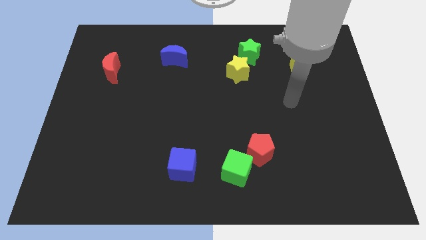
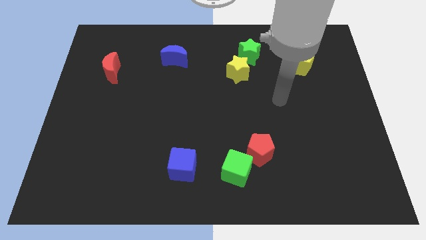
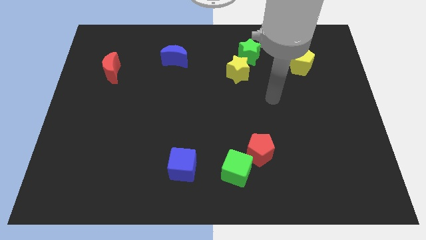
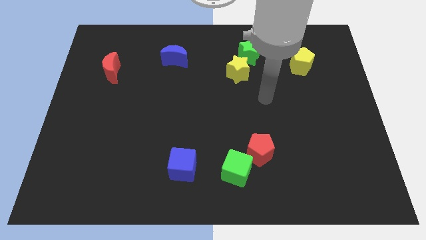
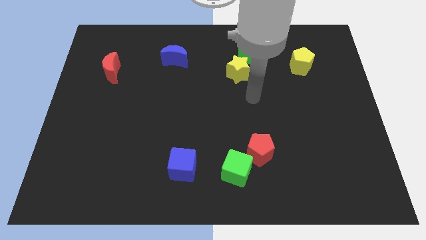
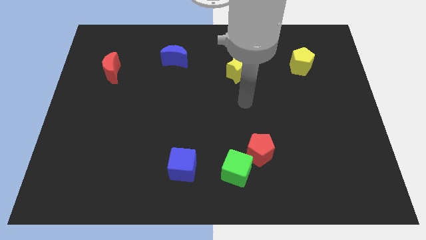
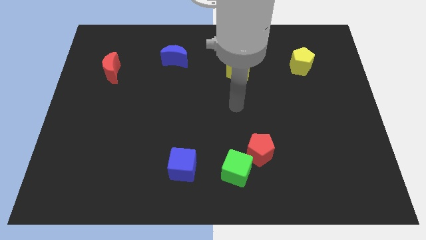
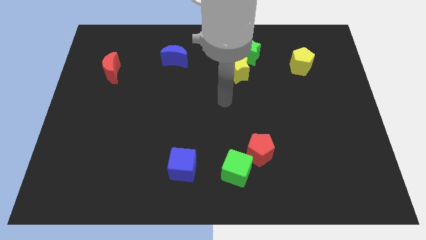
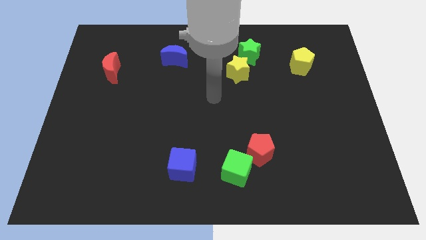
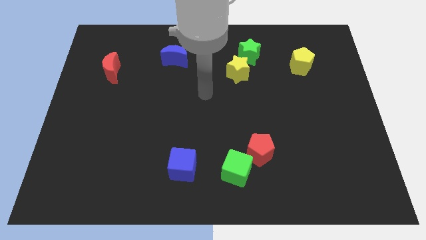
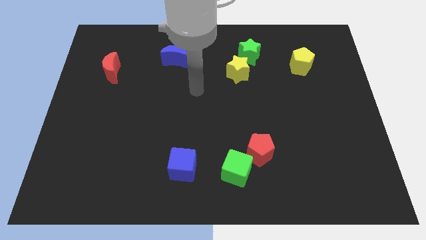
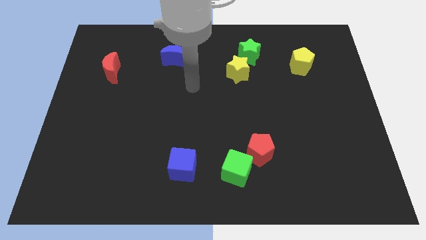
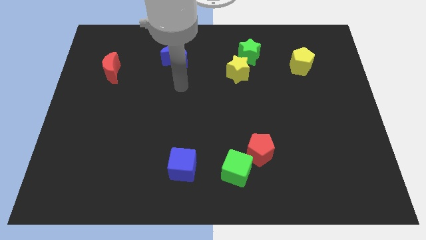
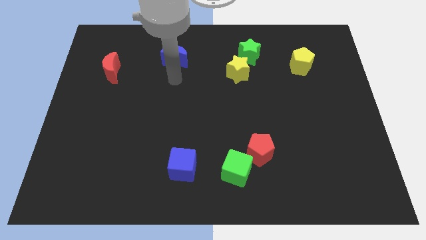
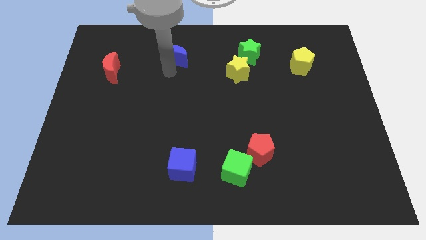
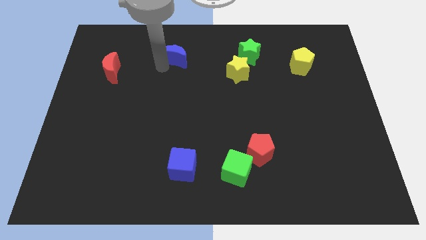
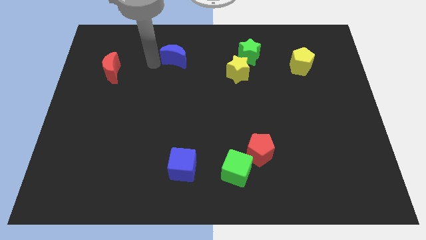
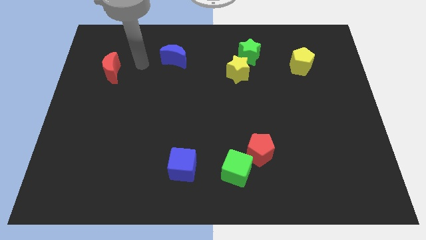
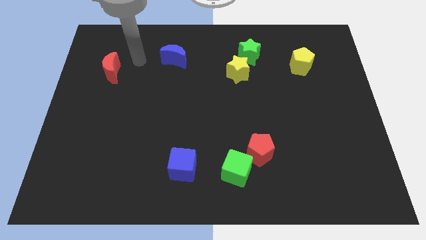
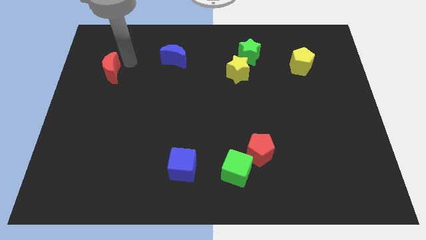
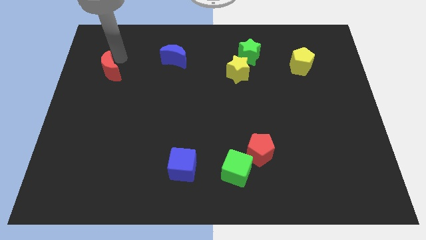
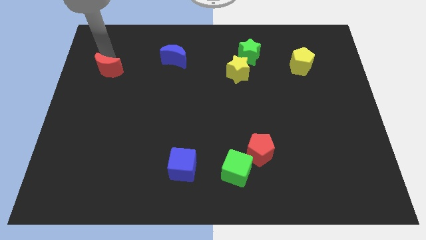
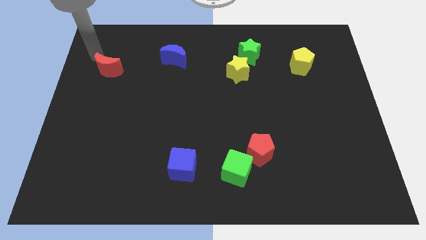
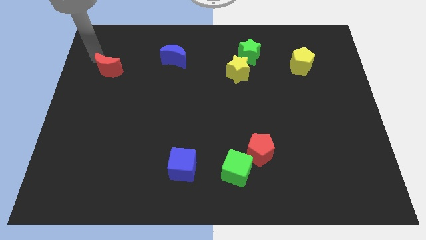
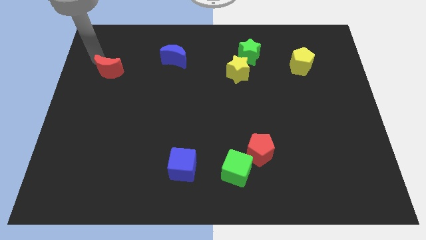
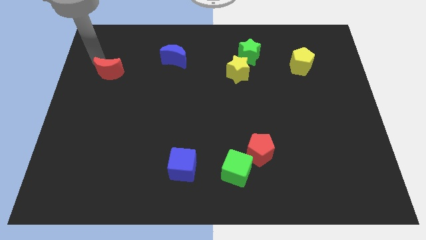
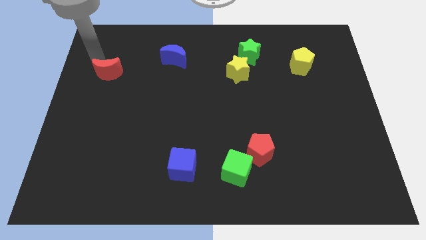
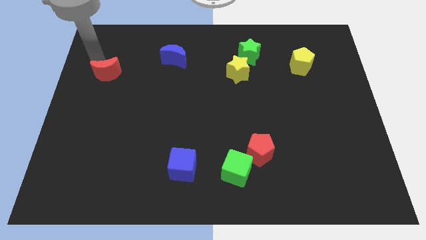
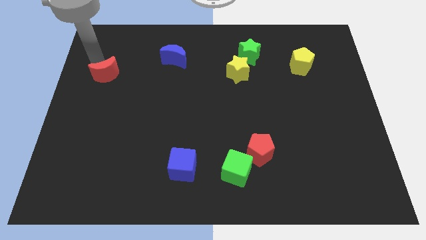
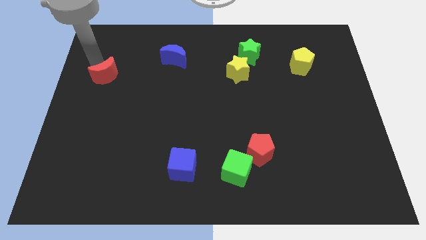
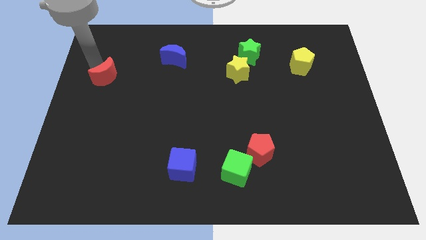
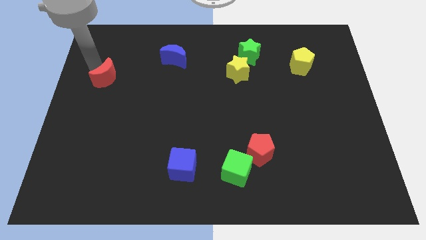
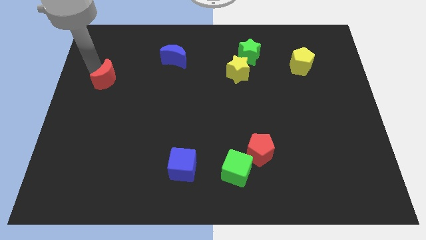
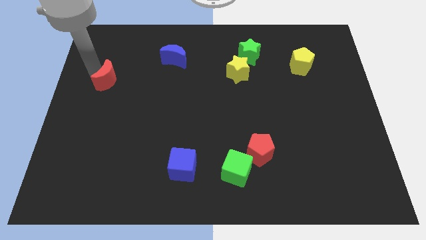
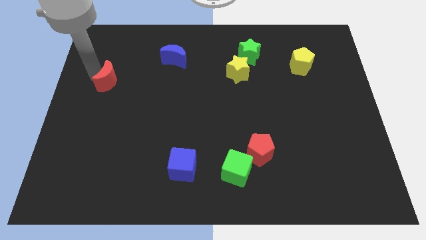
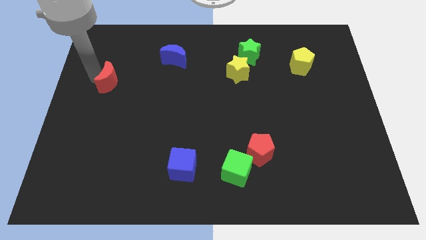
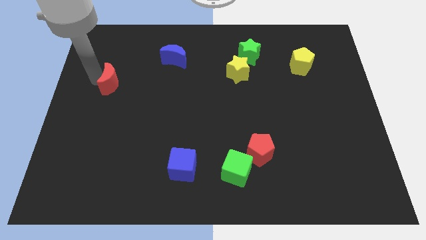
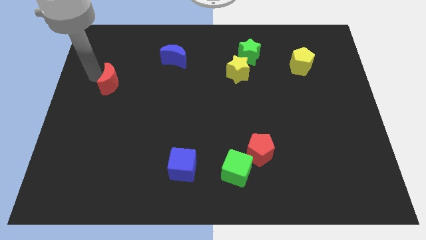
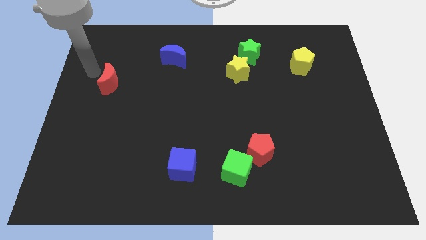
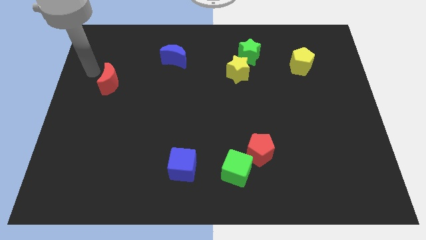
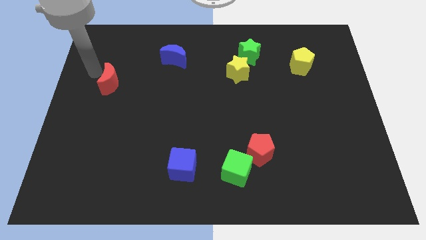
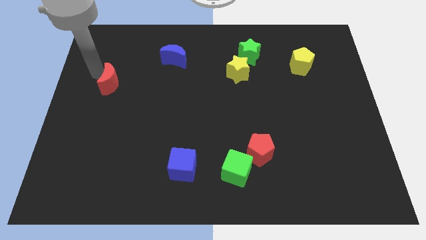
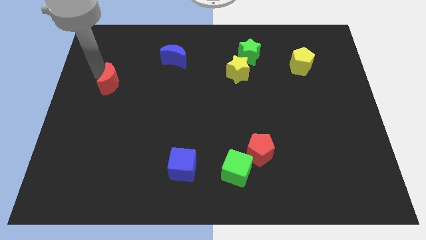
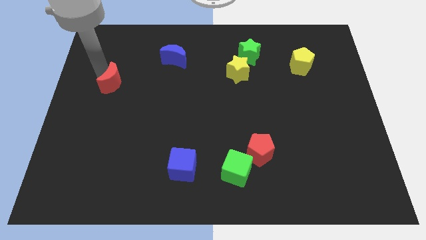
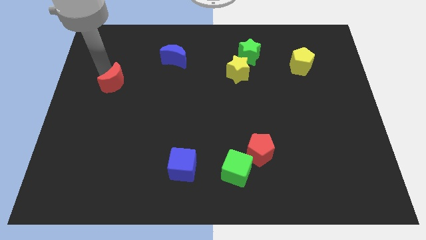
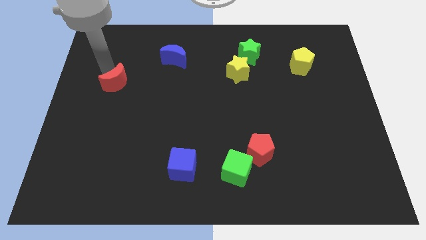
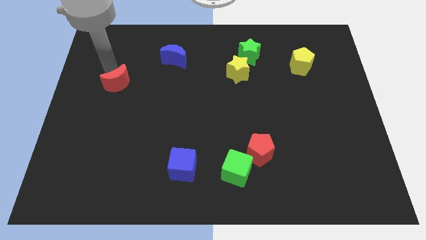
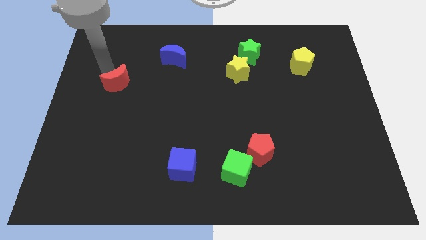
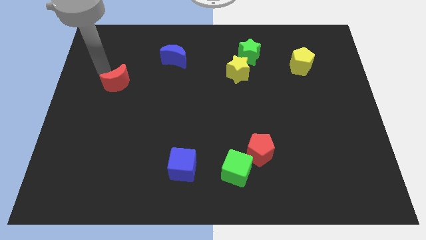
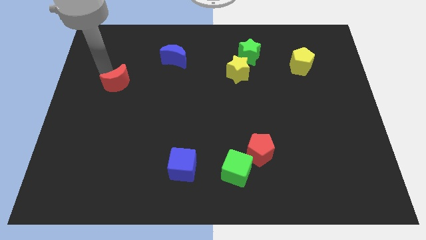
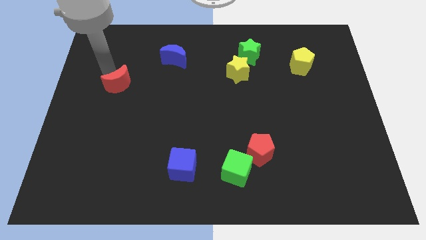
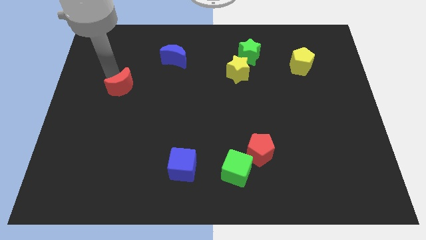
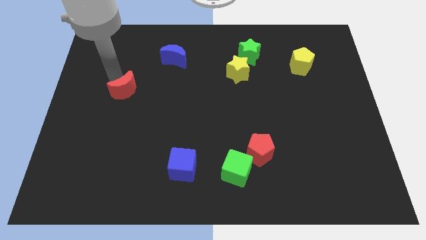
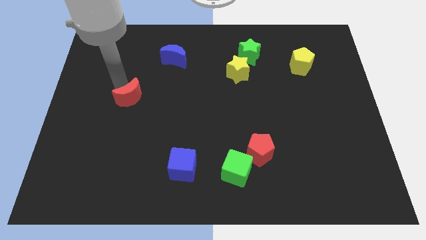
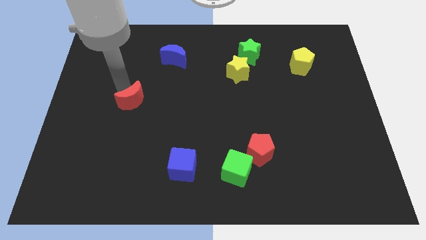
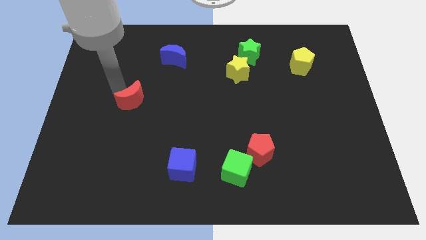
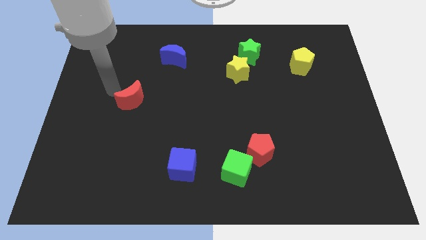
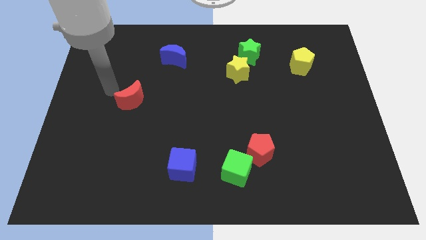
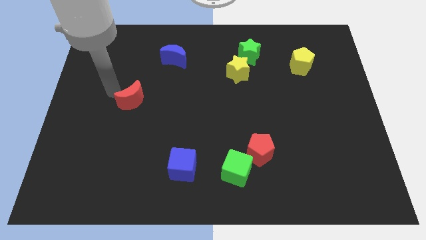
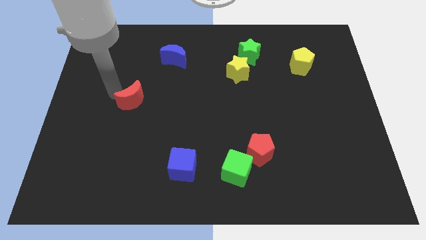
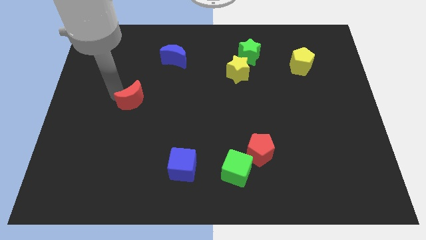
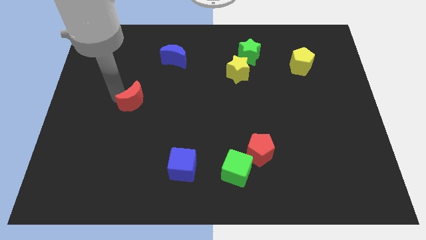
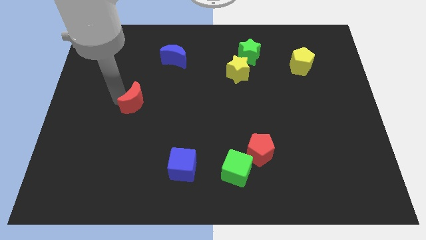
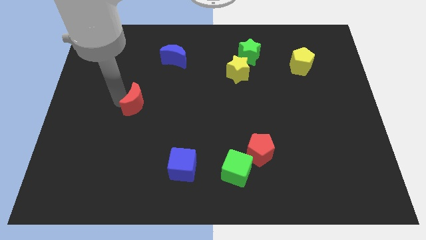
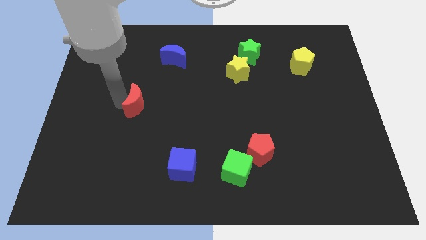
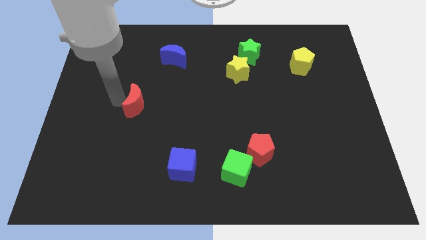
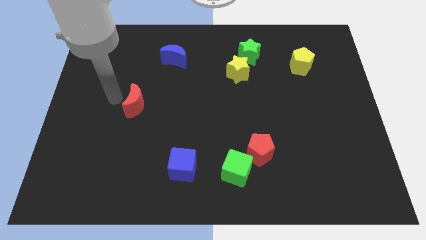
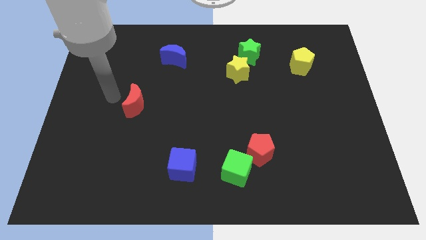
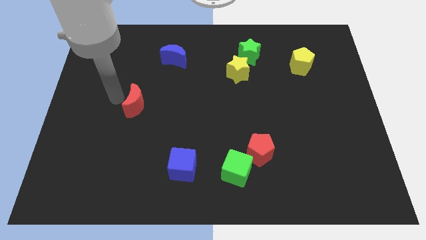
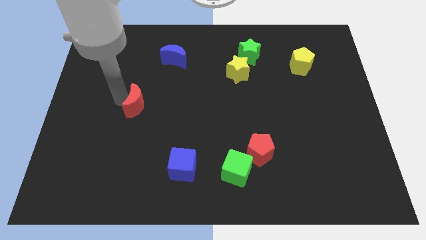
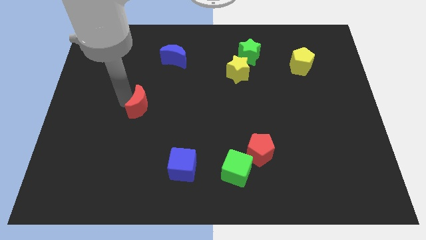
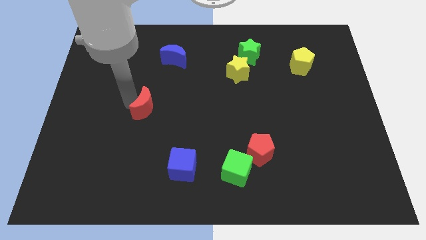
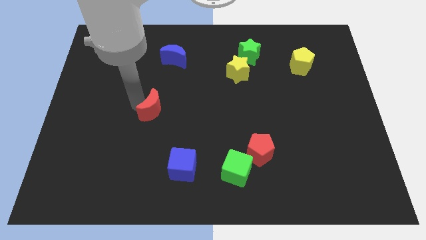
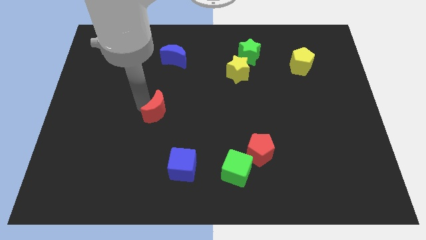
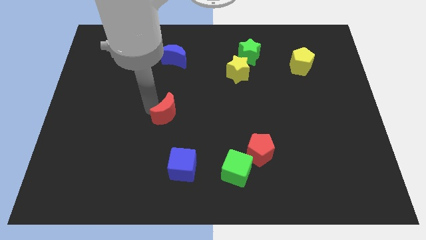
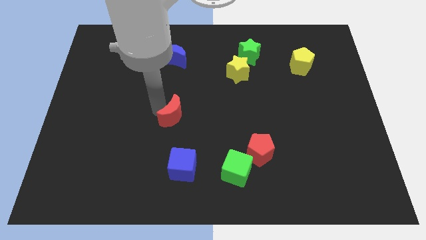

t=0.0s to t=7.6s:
push the red moon to the top side of the blue cube

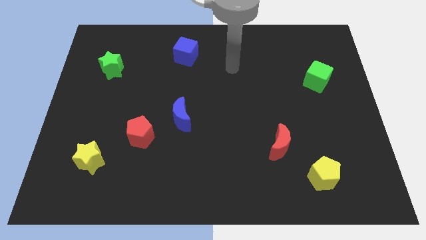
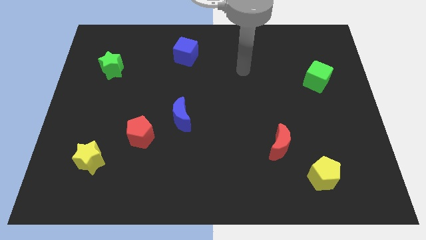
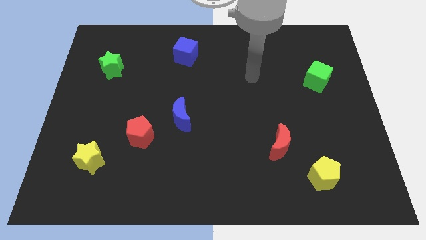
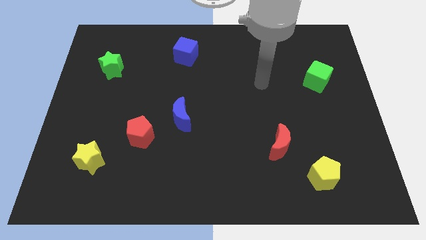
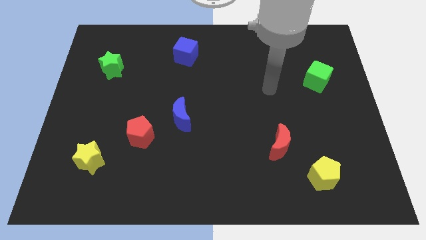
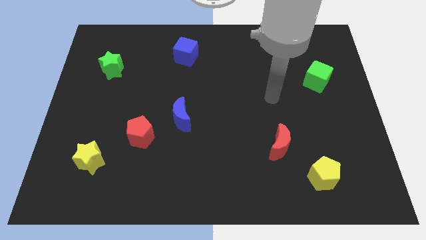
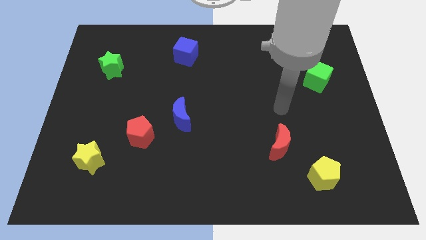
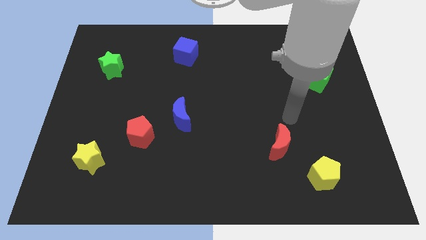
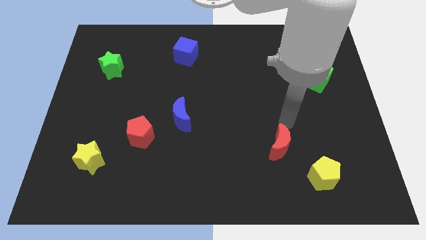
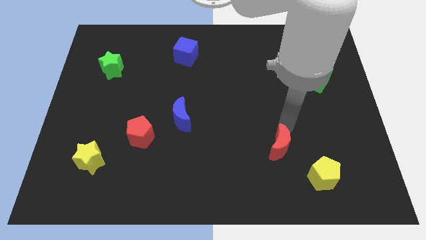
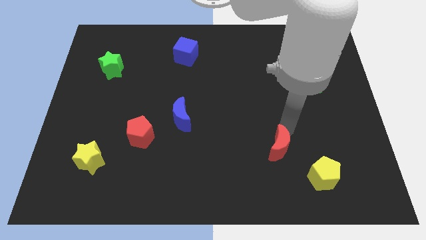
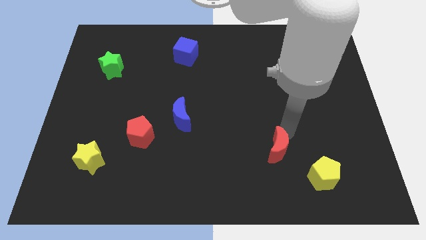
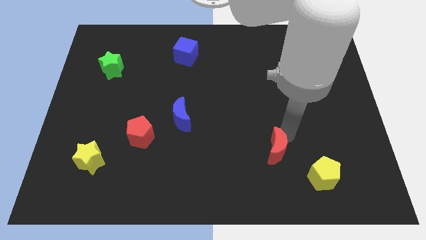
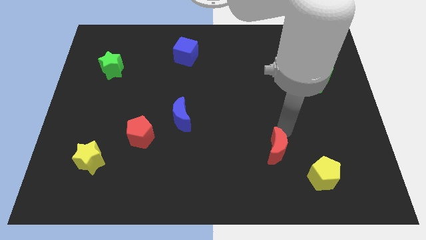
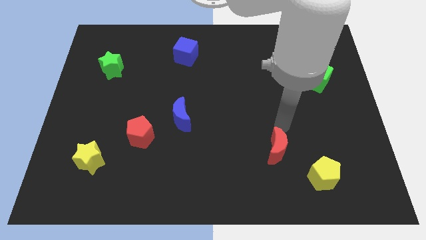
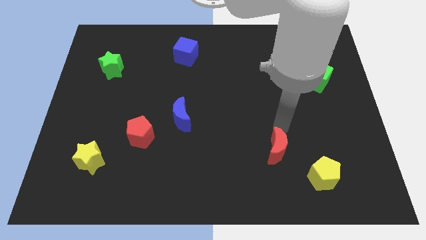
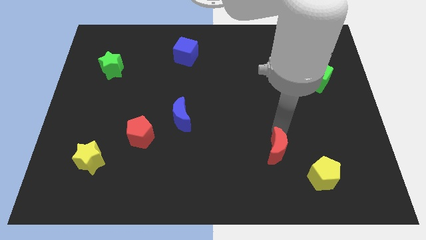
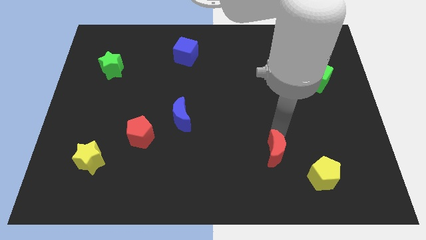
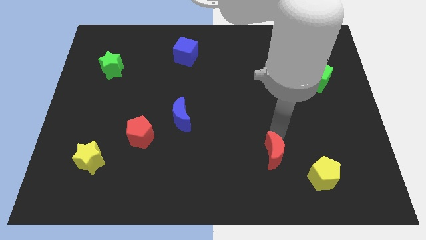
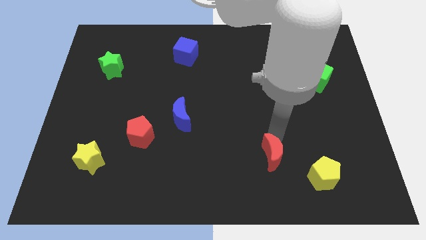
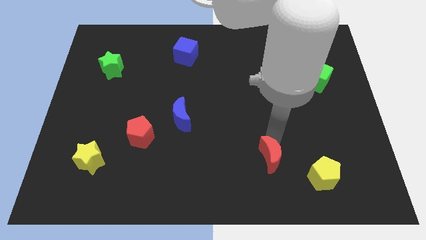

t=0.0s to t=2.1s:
slide the red moon left of the yellow pentagon
